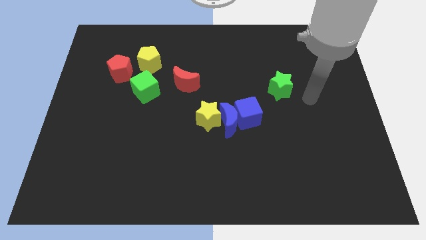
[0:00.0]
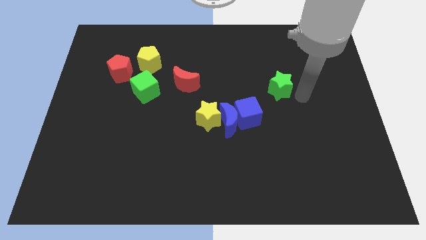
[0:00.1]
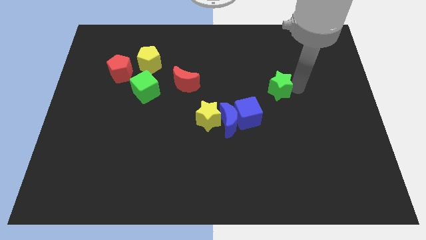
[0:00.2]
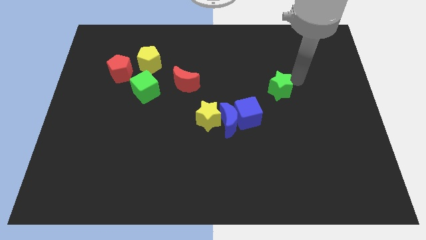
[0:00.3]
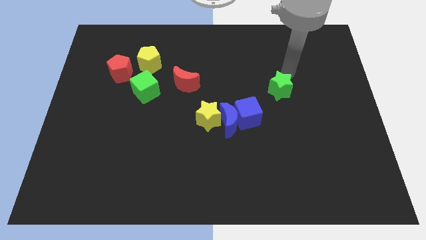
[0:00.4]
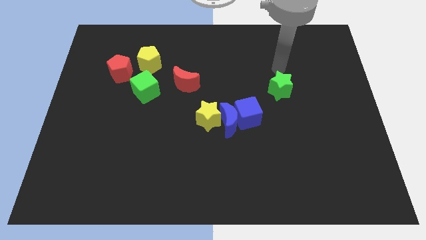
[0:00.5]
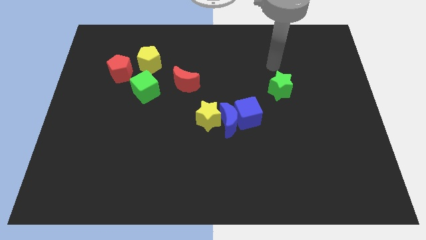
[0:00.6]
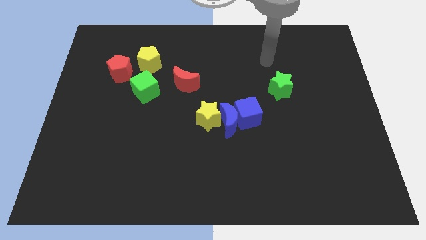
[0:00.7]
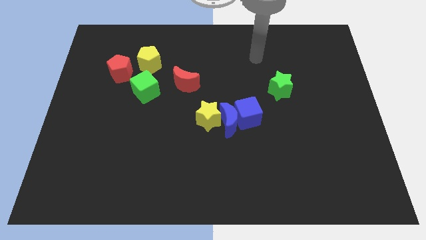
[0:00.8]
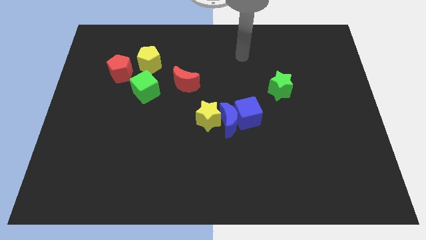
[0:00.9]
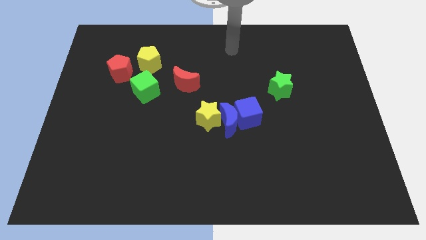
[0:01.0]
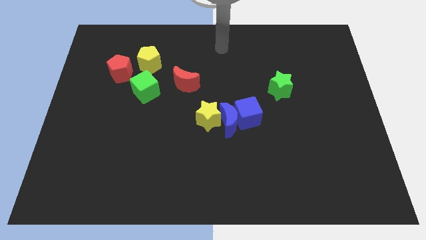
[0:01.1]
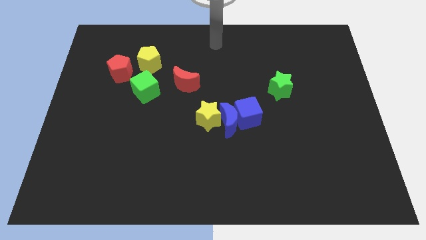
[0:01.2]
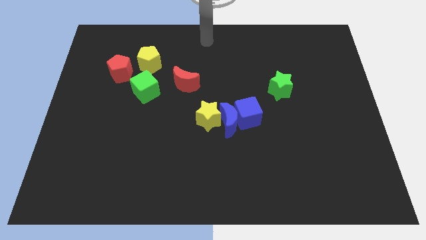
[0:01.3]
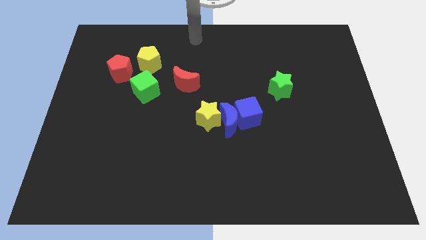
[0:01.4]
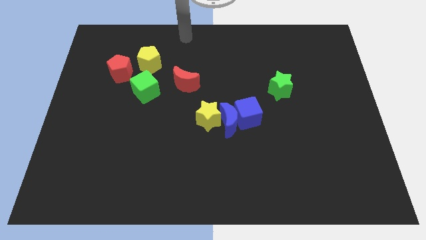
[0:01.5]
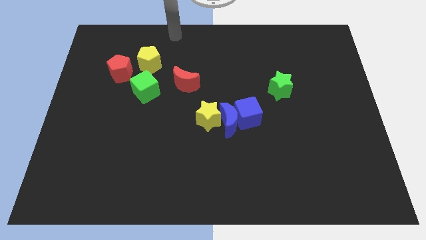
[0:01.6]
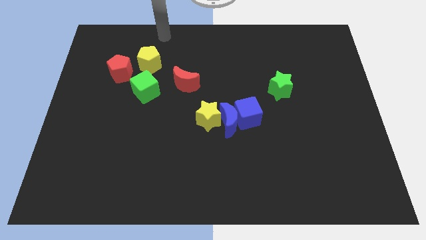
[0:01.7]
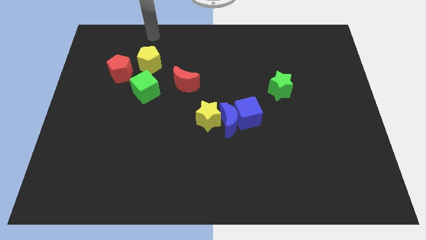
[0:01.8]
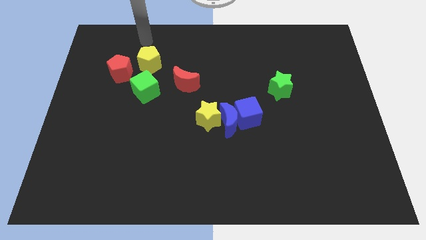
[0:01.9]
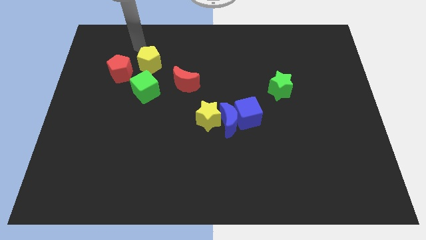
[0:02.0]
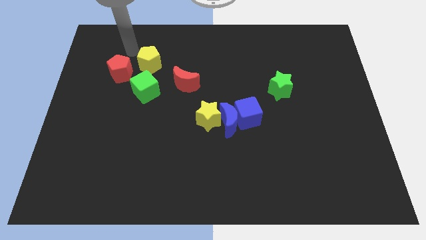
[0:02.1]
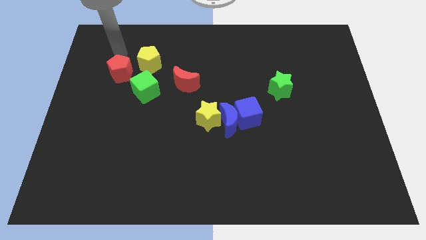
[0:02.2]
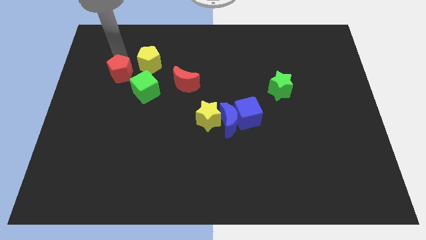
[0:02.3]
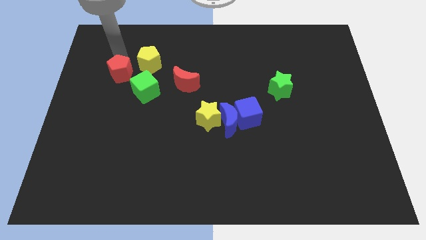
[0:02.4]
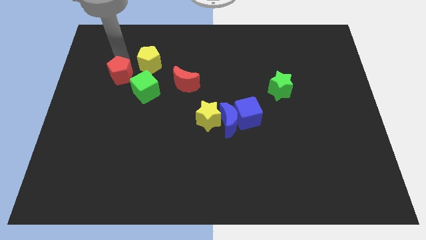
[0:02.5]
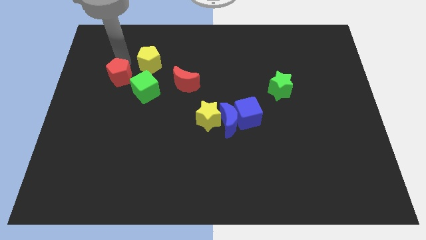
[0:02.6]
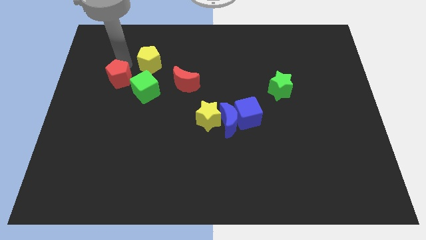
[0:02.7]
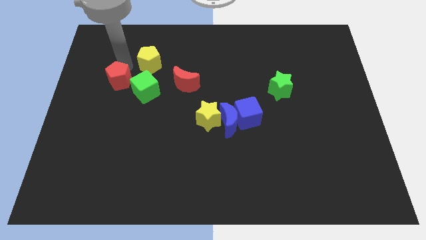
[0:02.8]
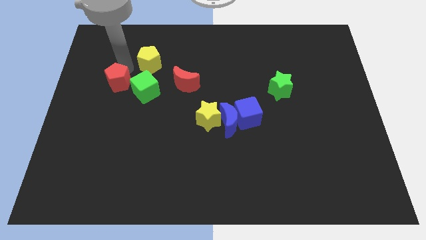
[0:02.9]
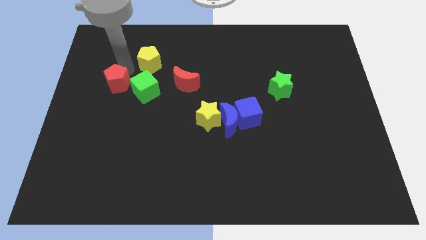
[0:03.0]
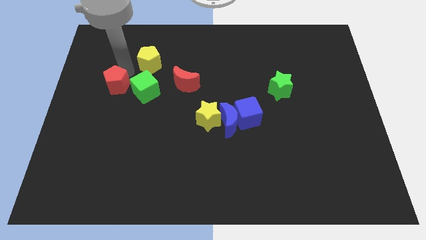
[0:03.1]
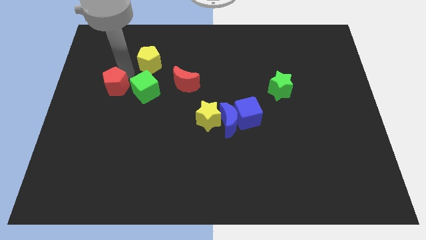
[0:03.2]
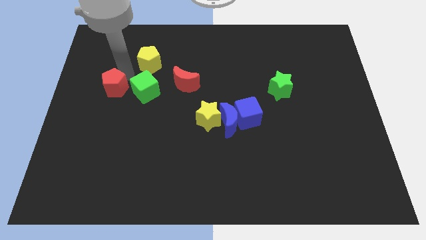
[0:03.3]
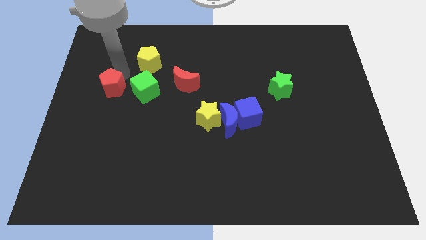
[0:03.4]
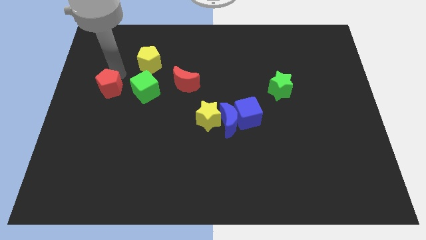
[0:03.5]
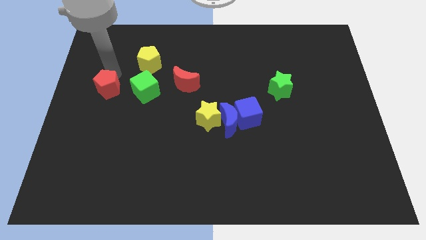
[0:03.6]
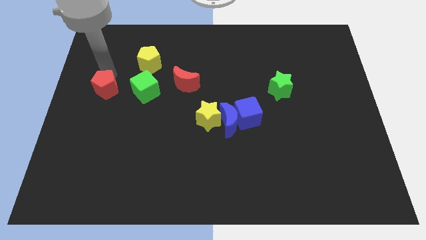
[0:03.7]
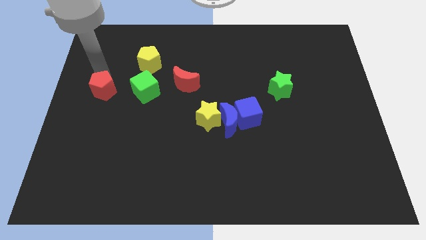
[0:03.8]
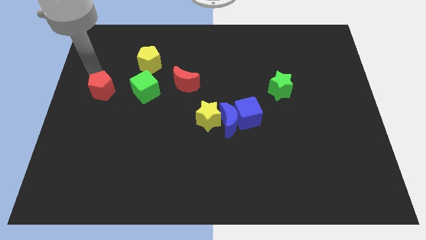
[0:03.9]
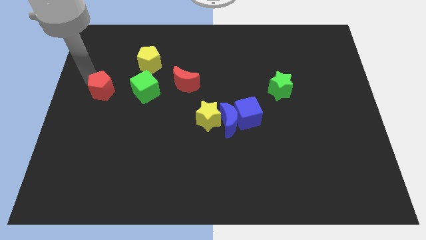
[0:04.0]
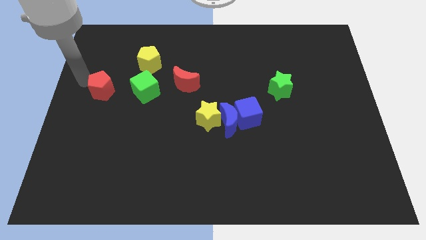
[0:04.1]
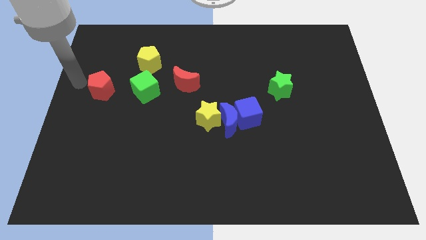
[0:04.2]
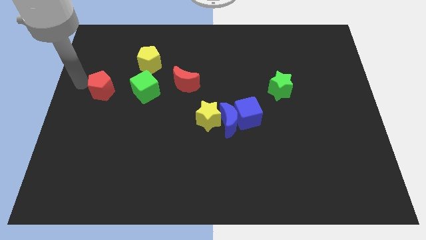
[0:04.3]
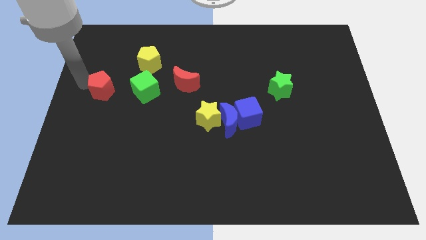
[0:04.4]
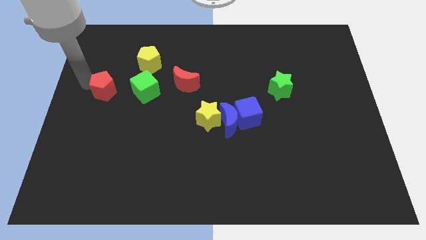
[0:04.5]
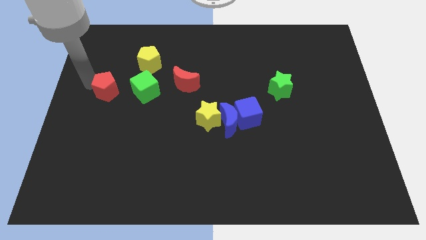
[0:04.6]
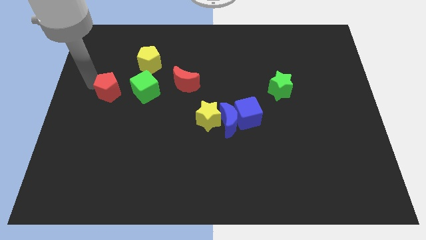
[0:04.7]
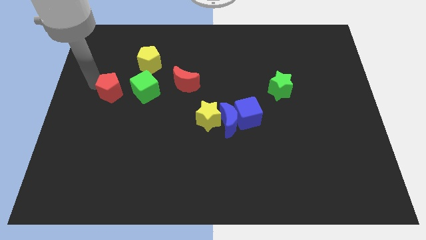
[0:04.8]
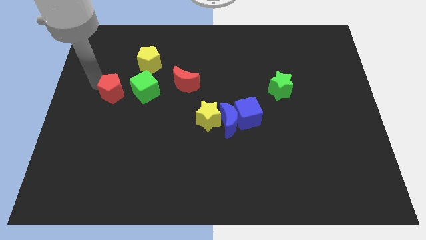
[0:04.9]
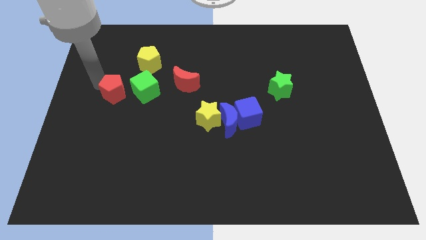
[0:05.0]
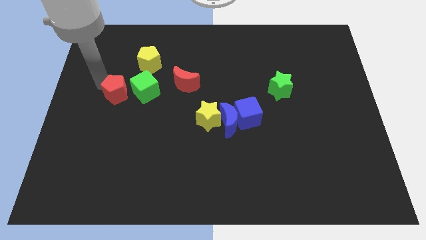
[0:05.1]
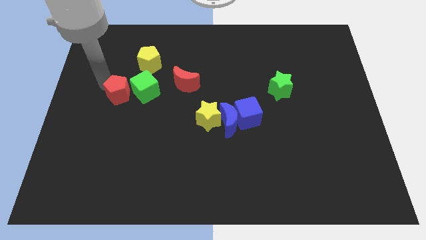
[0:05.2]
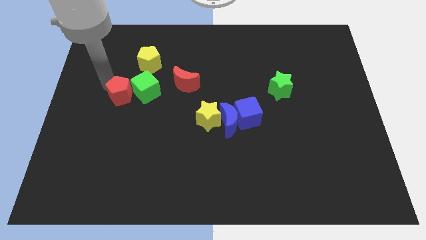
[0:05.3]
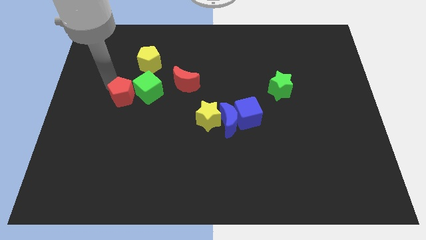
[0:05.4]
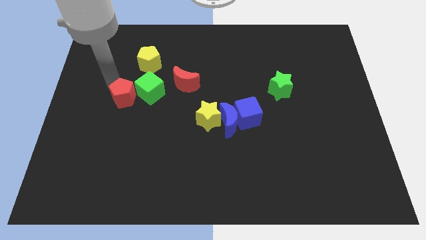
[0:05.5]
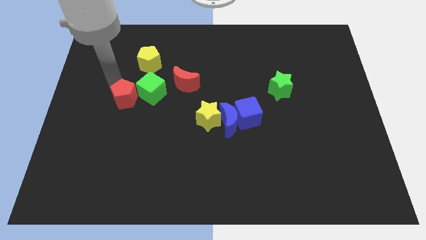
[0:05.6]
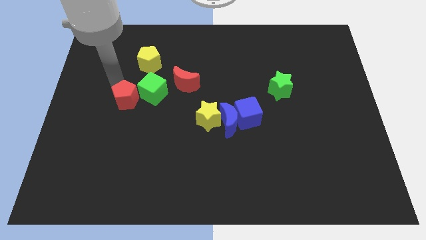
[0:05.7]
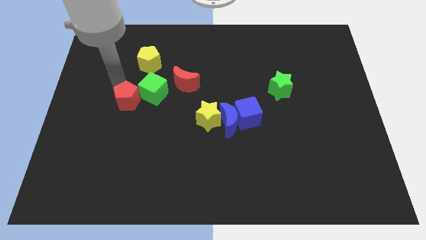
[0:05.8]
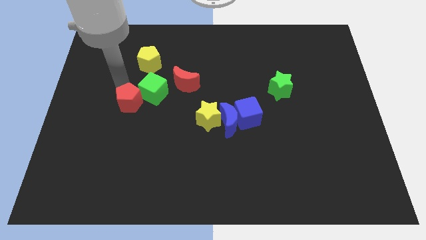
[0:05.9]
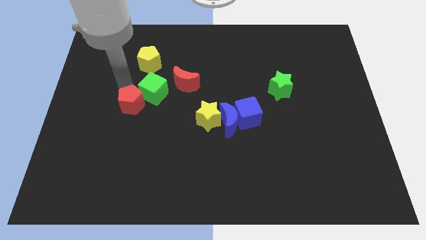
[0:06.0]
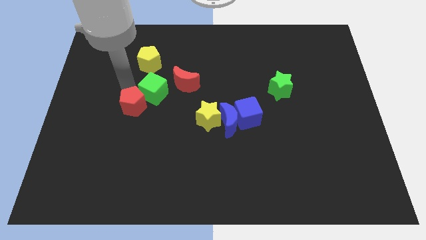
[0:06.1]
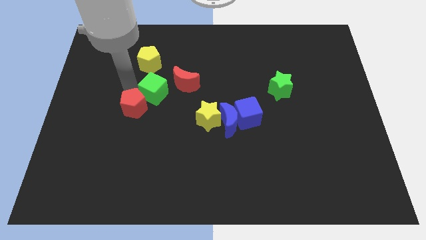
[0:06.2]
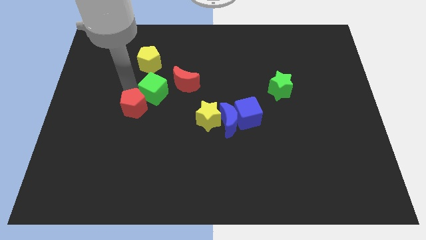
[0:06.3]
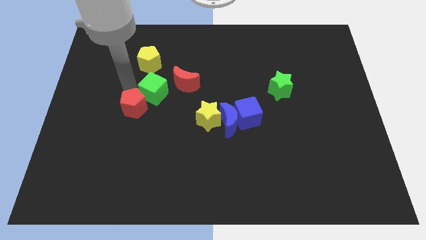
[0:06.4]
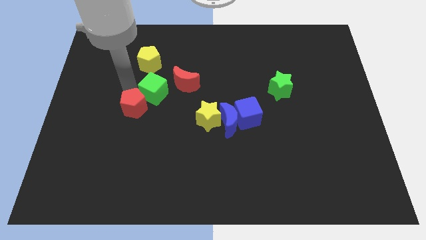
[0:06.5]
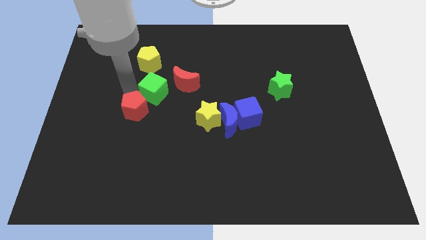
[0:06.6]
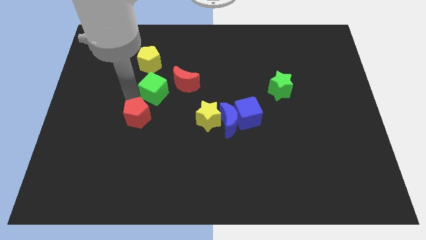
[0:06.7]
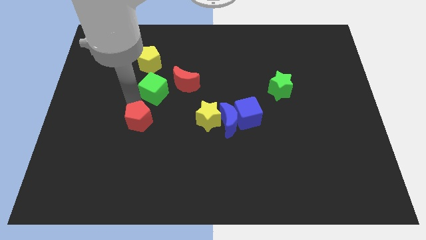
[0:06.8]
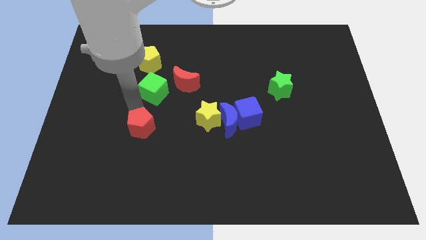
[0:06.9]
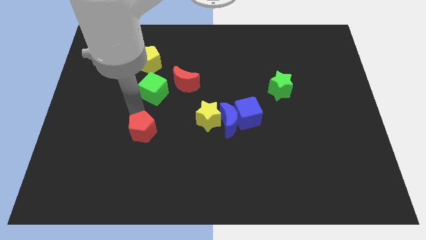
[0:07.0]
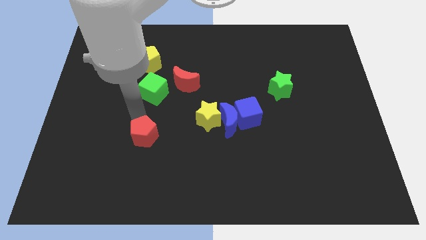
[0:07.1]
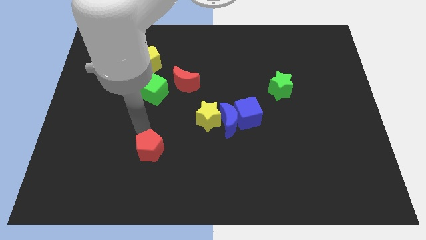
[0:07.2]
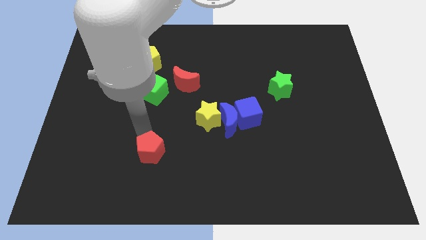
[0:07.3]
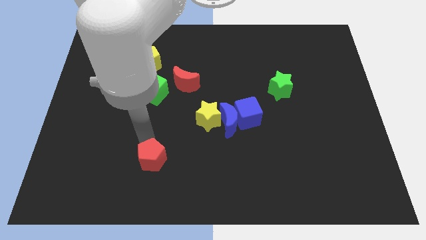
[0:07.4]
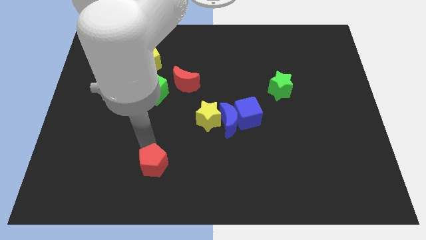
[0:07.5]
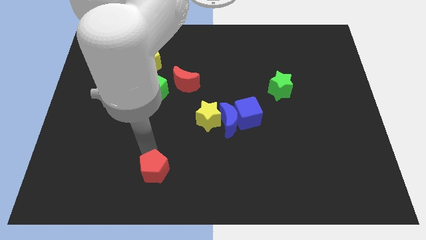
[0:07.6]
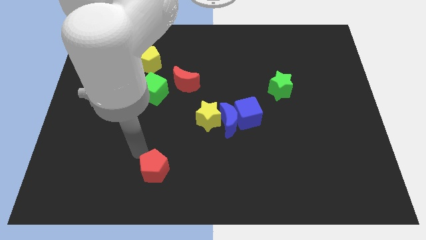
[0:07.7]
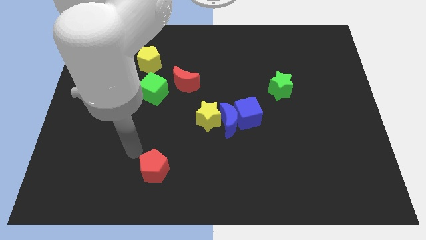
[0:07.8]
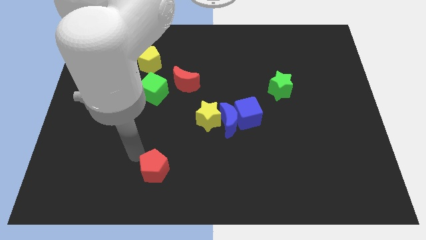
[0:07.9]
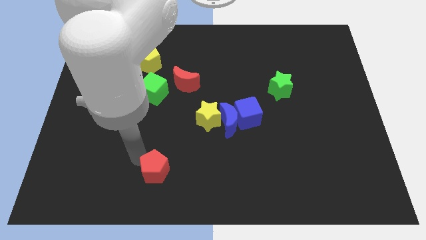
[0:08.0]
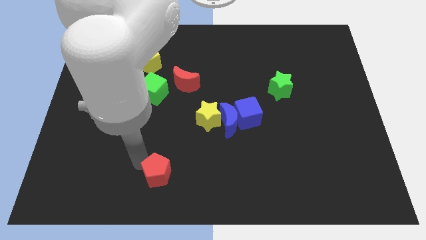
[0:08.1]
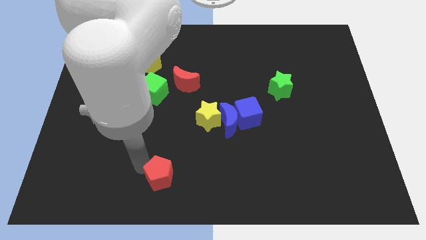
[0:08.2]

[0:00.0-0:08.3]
slide the red pentagon to the bottom
